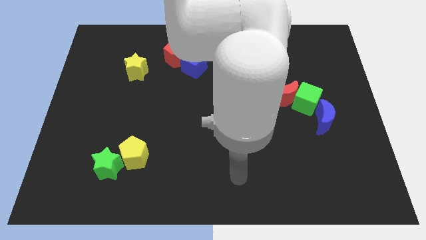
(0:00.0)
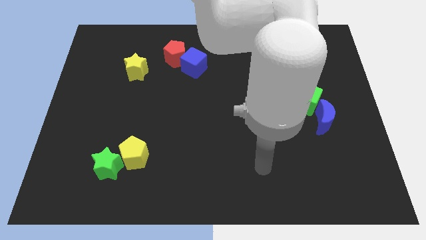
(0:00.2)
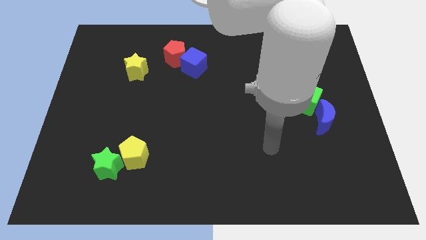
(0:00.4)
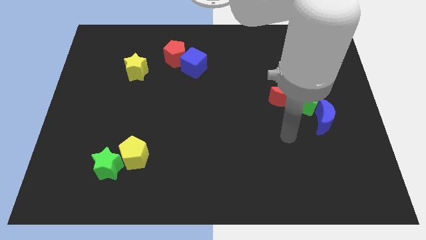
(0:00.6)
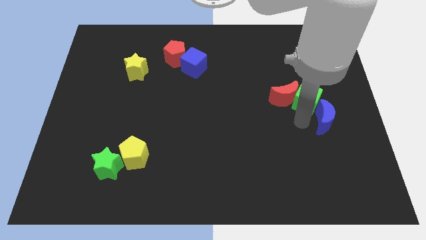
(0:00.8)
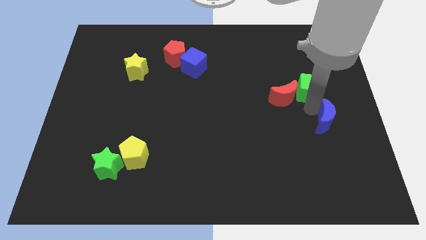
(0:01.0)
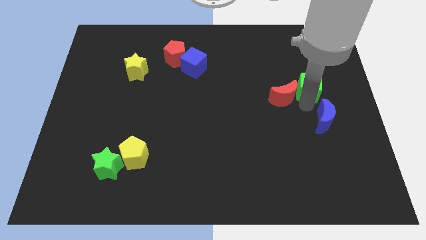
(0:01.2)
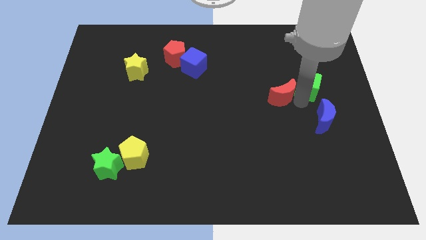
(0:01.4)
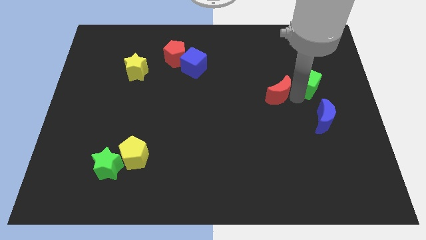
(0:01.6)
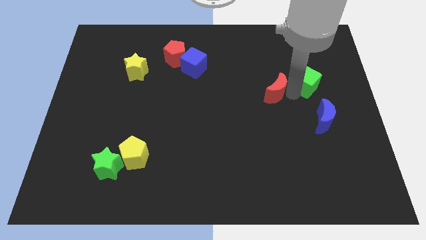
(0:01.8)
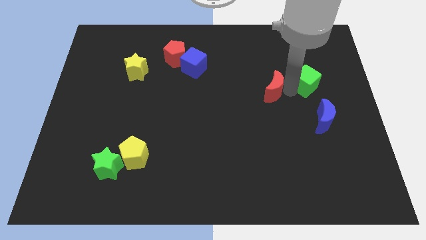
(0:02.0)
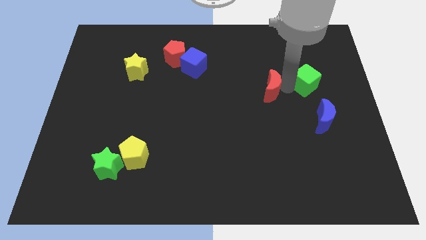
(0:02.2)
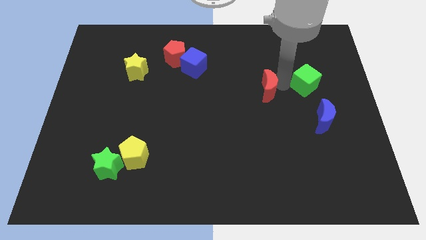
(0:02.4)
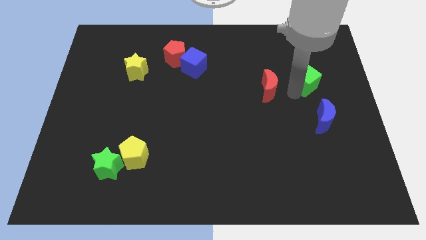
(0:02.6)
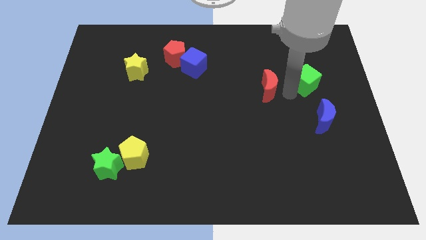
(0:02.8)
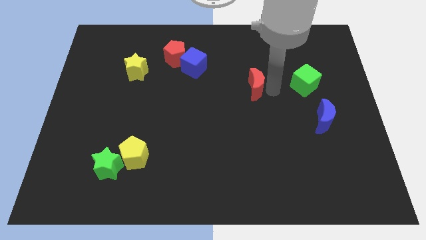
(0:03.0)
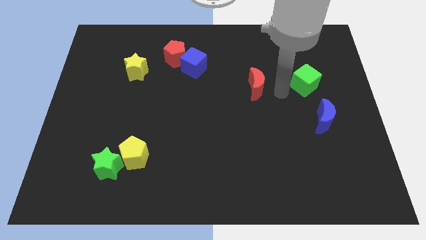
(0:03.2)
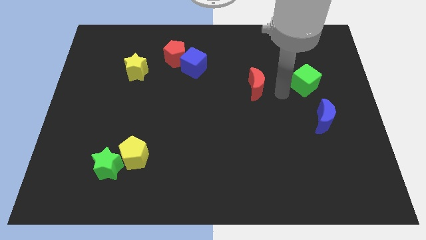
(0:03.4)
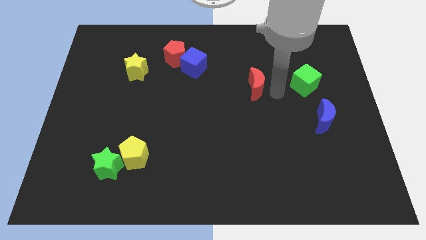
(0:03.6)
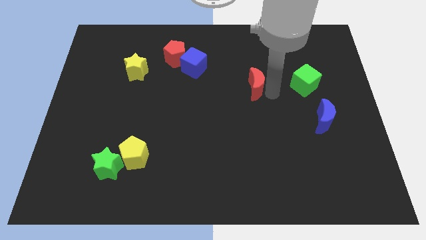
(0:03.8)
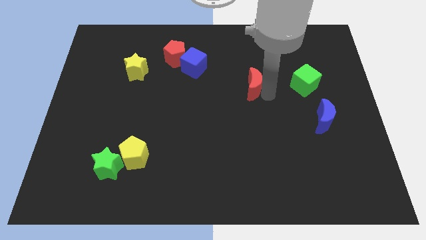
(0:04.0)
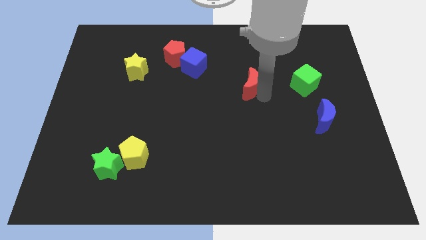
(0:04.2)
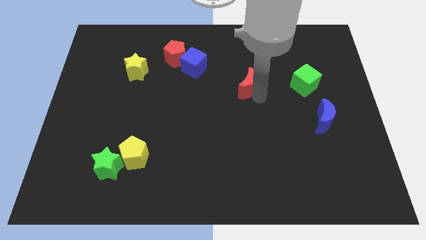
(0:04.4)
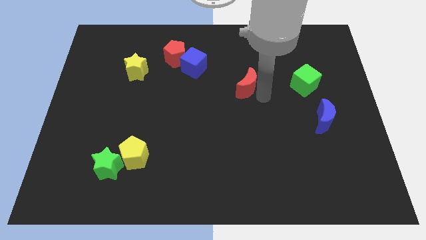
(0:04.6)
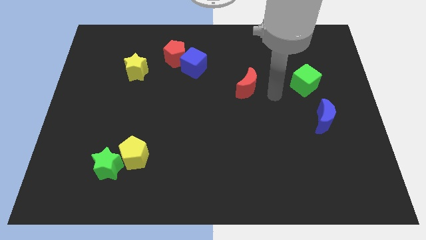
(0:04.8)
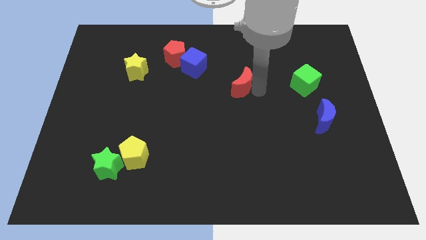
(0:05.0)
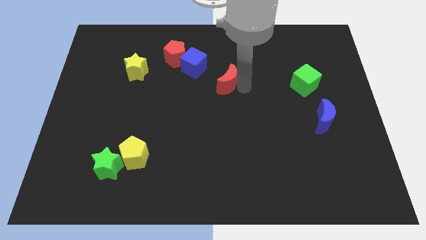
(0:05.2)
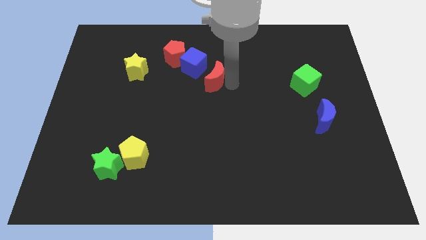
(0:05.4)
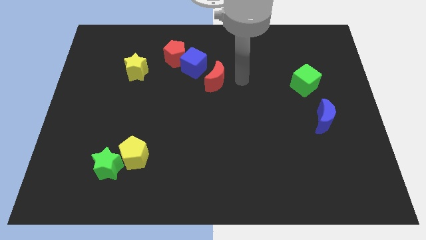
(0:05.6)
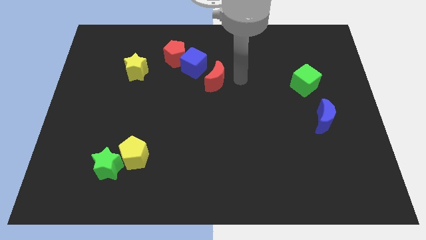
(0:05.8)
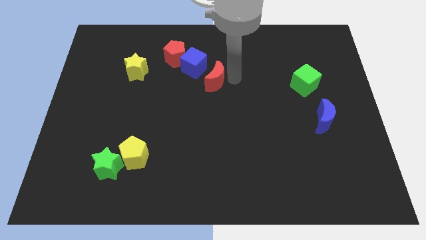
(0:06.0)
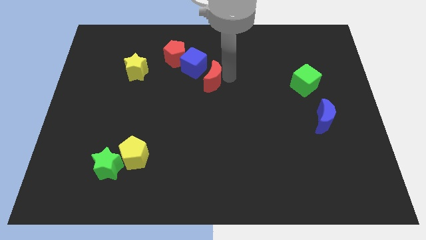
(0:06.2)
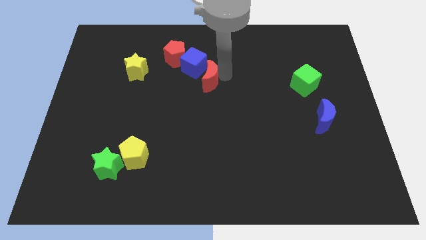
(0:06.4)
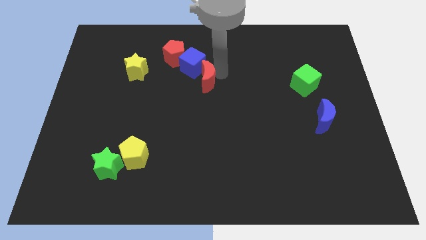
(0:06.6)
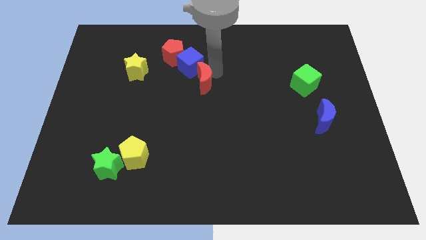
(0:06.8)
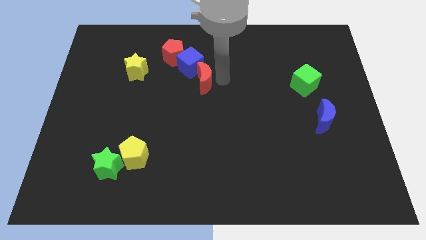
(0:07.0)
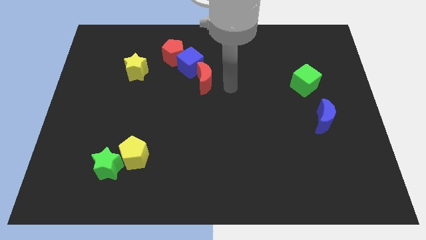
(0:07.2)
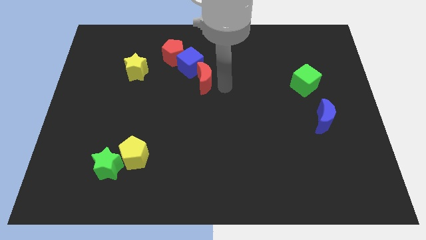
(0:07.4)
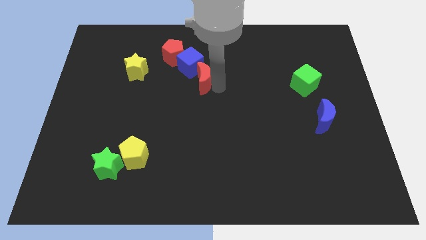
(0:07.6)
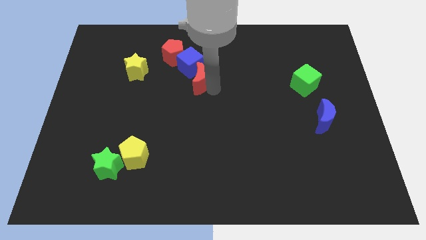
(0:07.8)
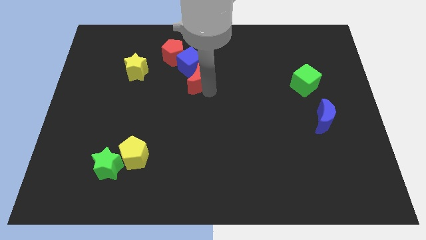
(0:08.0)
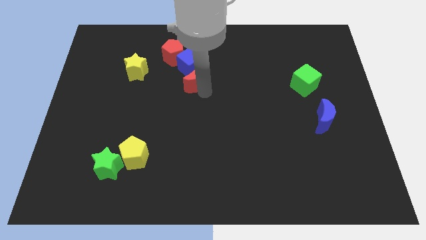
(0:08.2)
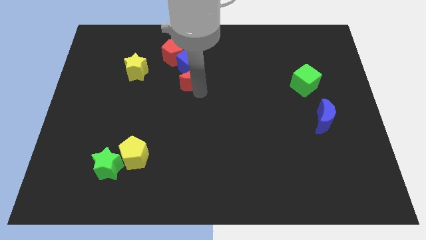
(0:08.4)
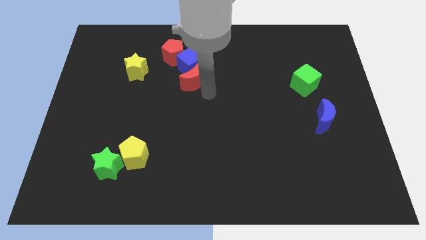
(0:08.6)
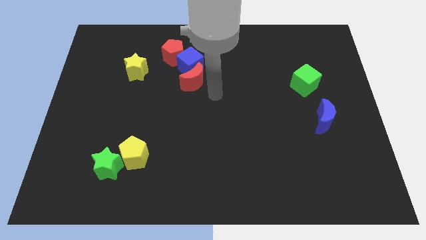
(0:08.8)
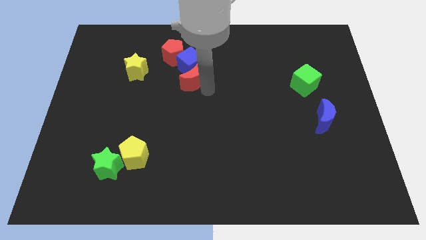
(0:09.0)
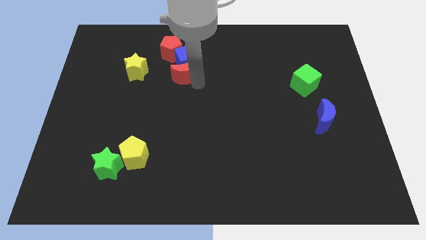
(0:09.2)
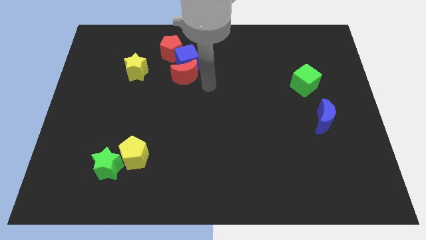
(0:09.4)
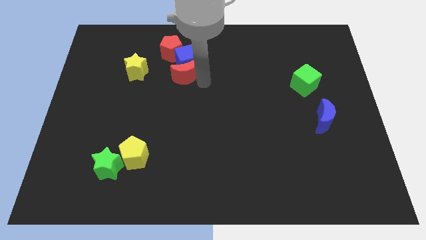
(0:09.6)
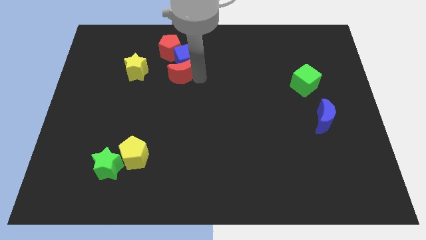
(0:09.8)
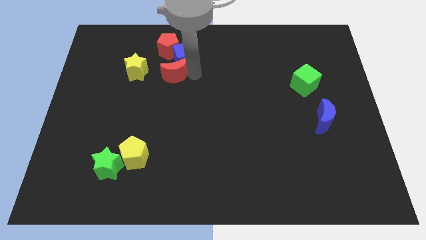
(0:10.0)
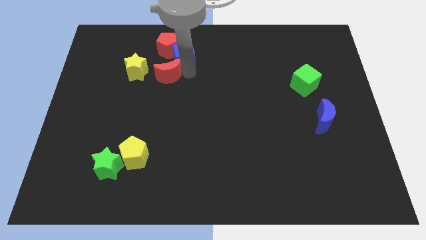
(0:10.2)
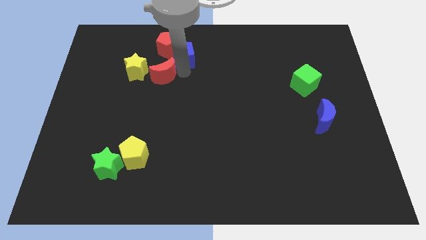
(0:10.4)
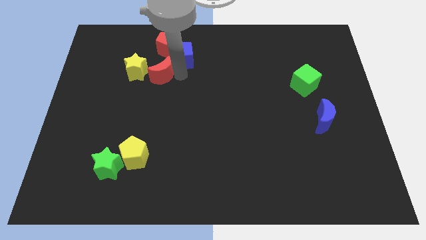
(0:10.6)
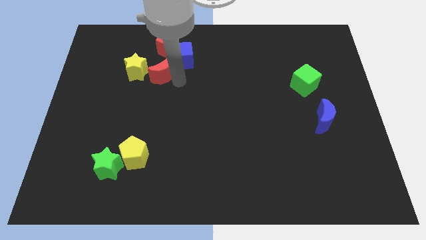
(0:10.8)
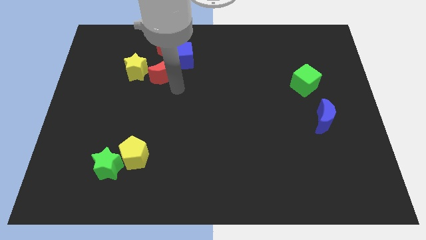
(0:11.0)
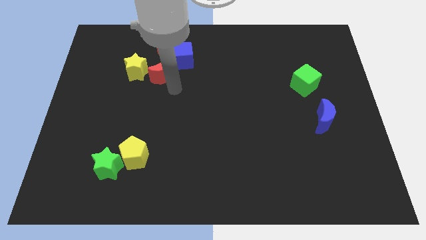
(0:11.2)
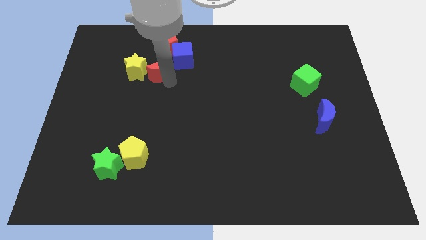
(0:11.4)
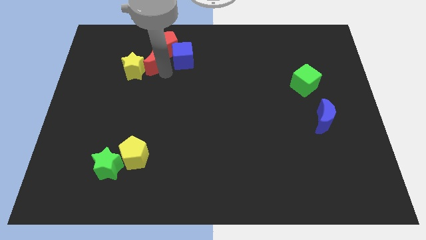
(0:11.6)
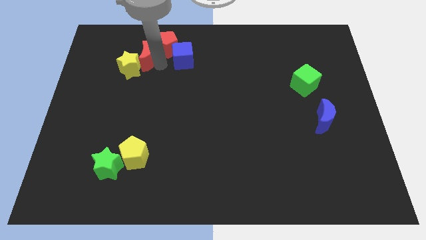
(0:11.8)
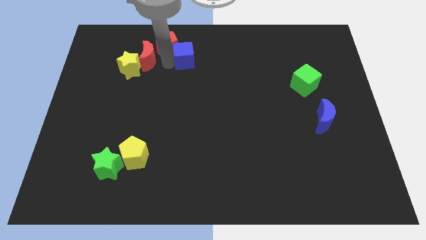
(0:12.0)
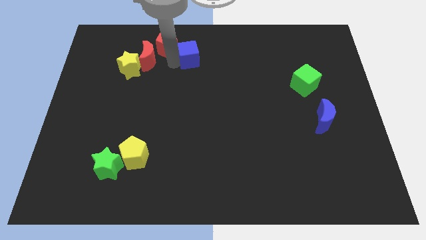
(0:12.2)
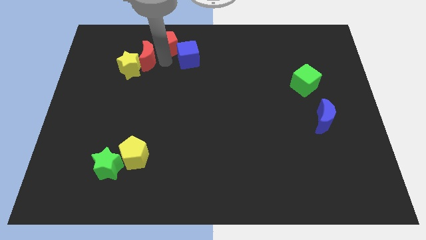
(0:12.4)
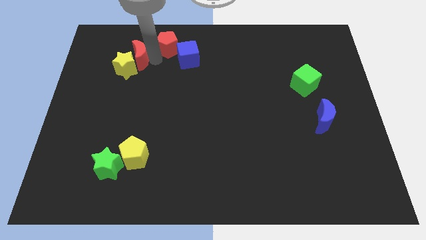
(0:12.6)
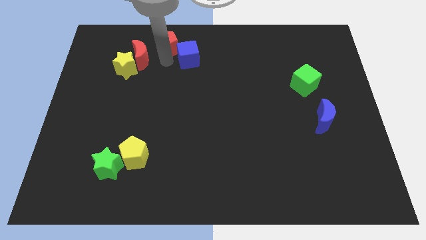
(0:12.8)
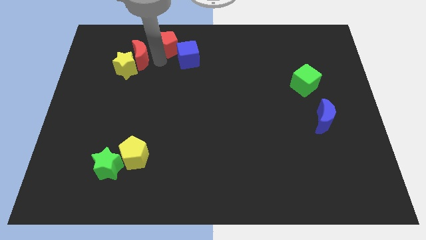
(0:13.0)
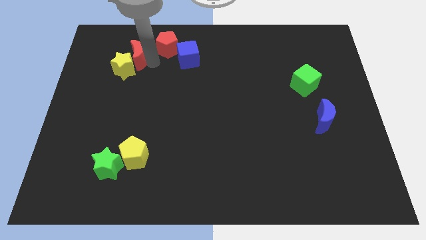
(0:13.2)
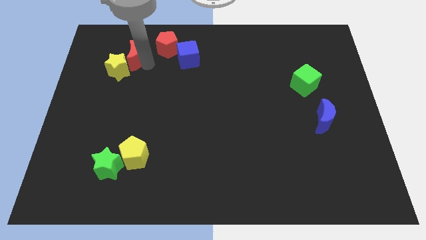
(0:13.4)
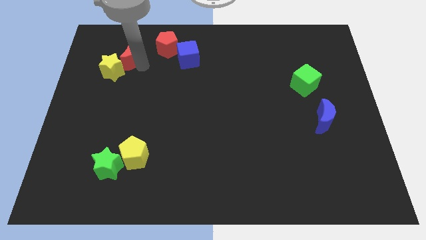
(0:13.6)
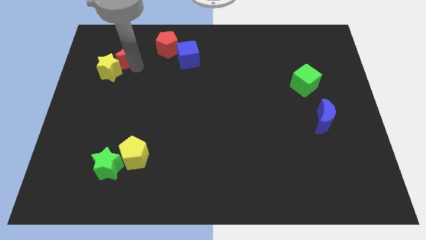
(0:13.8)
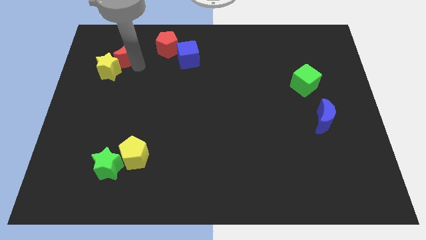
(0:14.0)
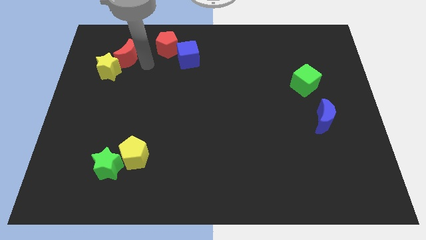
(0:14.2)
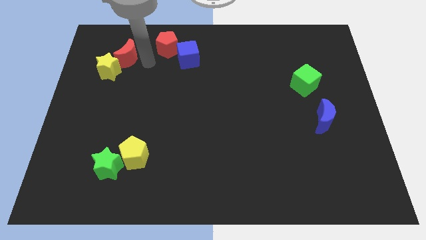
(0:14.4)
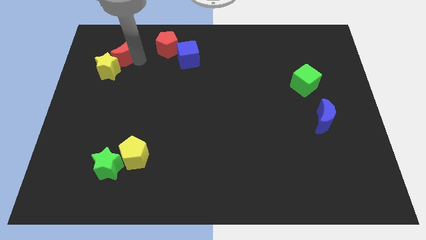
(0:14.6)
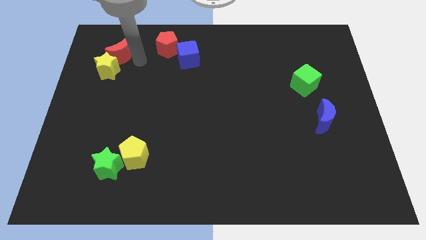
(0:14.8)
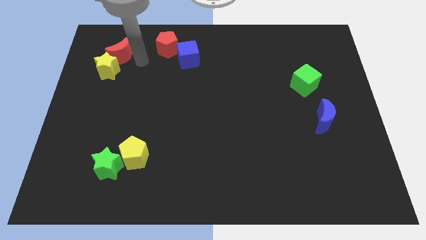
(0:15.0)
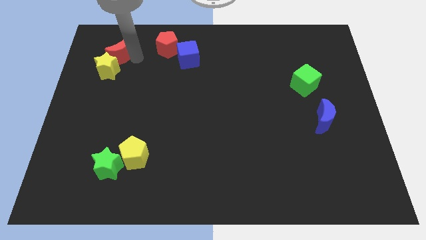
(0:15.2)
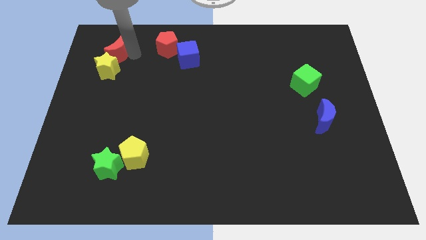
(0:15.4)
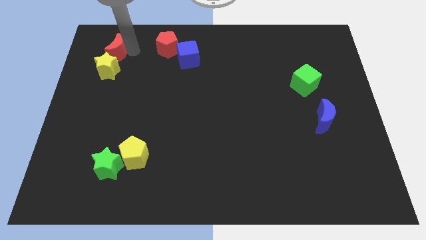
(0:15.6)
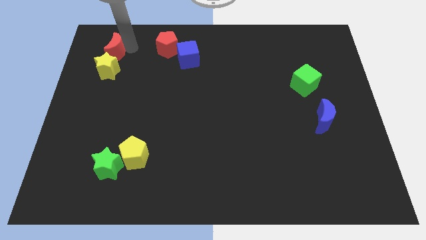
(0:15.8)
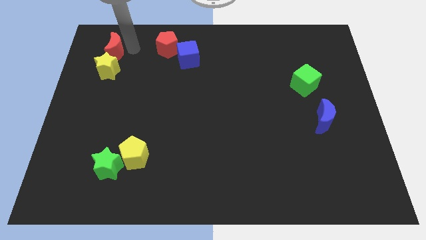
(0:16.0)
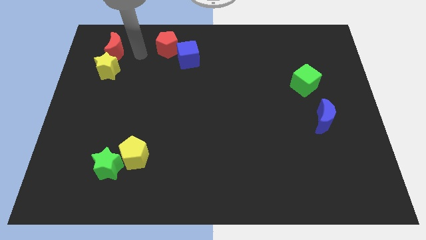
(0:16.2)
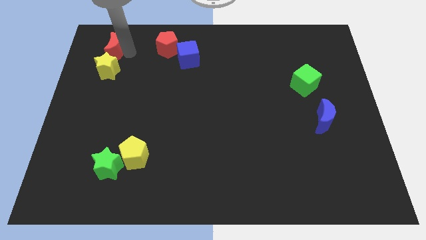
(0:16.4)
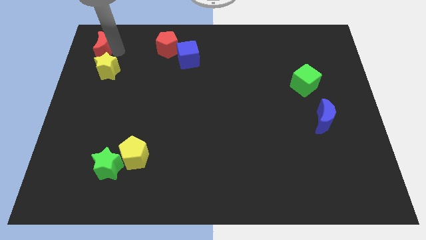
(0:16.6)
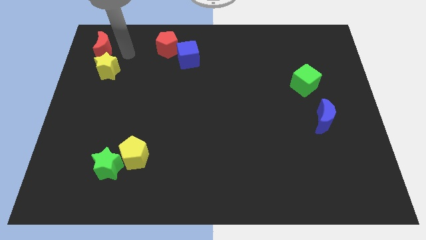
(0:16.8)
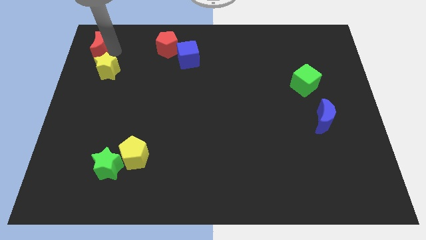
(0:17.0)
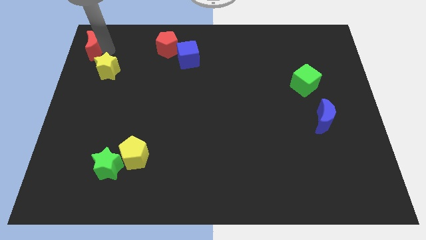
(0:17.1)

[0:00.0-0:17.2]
put the red moon to the top left
